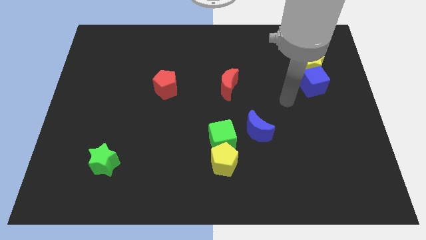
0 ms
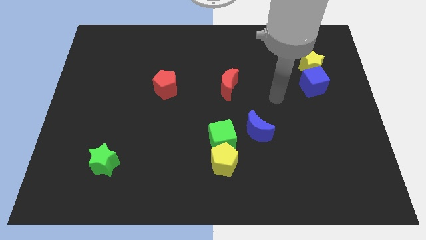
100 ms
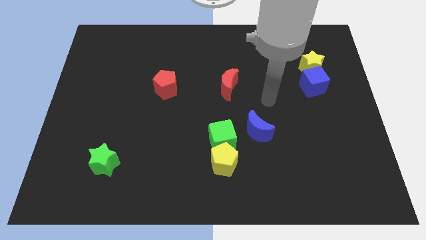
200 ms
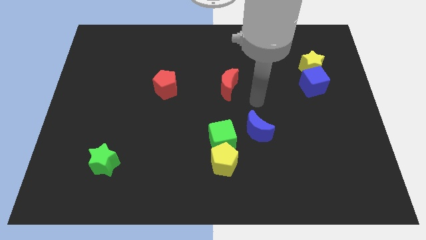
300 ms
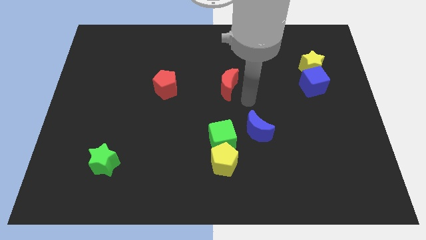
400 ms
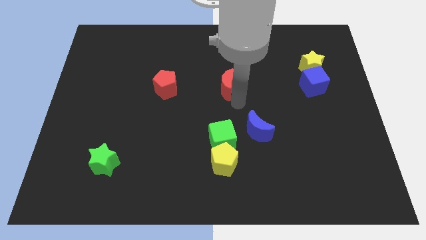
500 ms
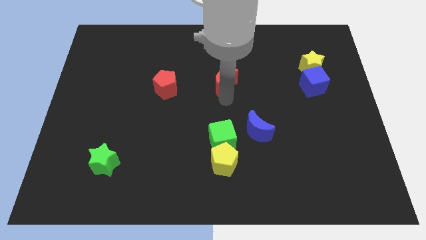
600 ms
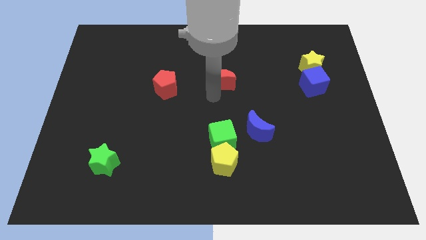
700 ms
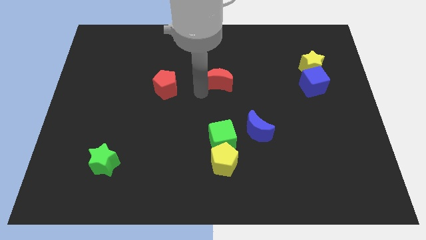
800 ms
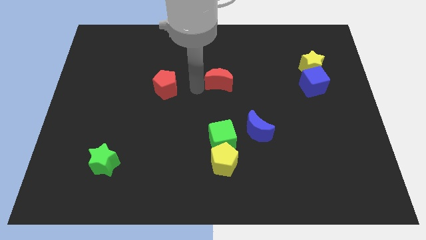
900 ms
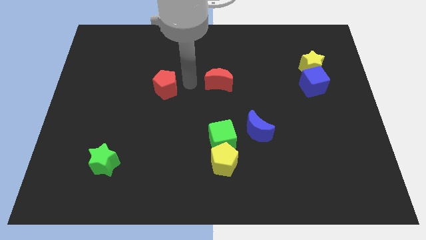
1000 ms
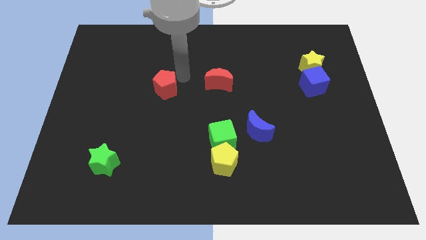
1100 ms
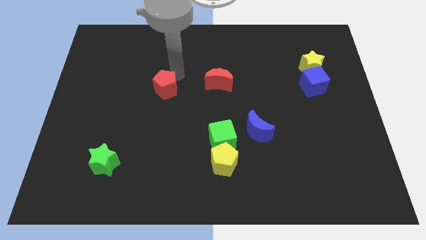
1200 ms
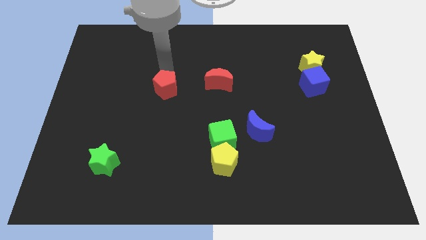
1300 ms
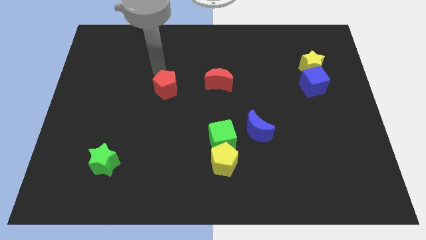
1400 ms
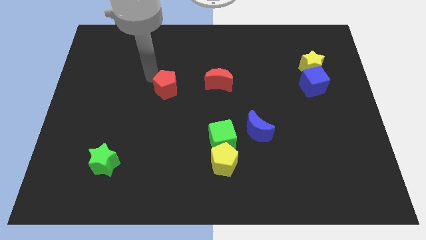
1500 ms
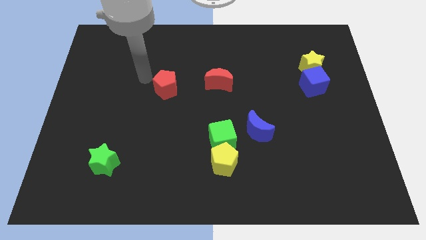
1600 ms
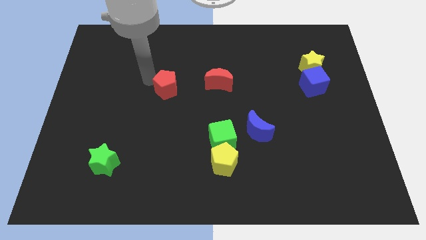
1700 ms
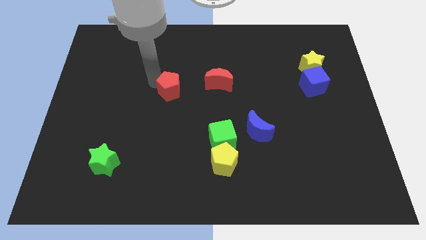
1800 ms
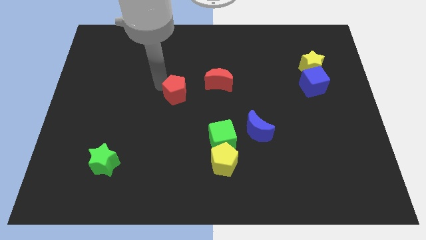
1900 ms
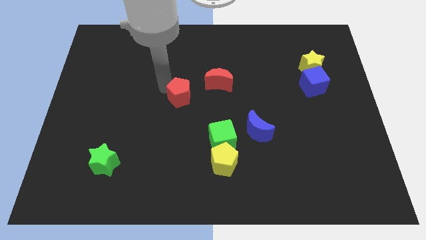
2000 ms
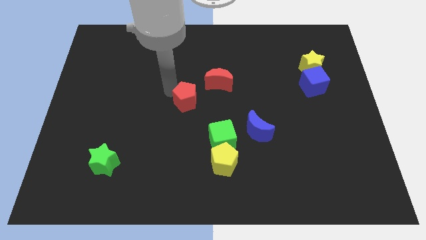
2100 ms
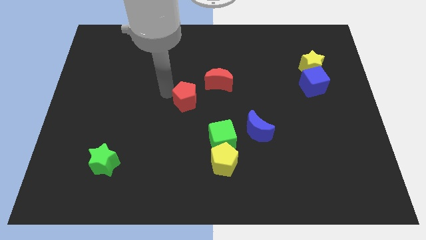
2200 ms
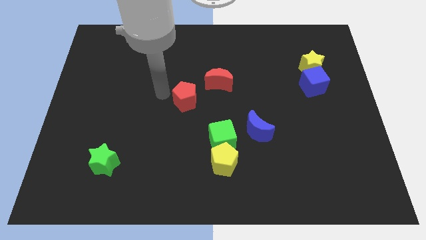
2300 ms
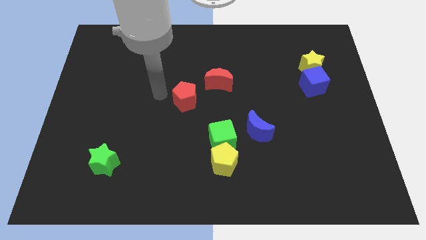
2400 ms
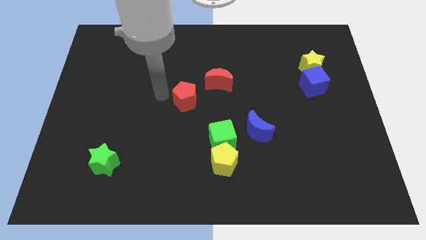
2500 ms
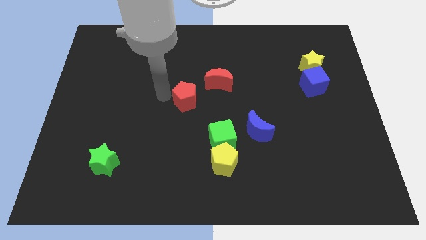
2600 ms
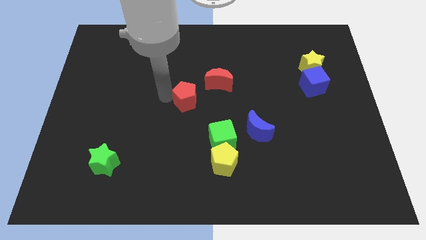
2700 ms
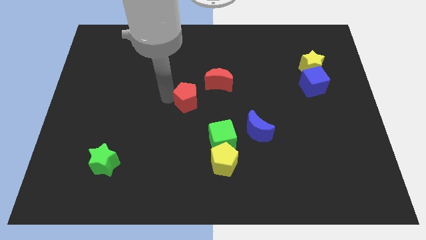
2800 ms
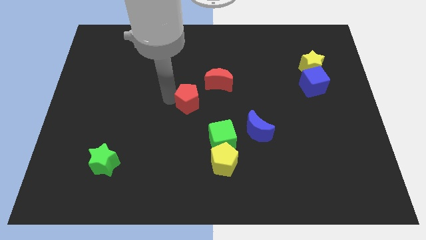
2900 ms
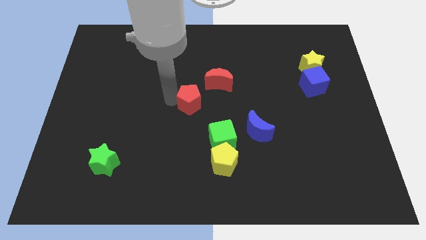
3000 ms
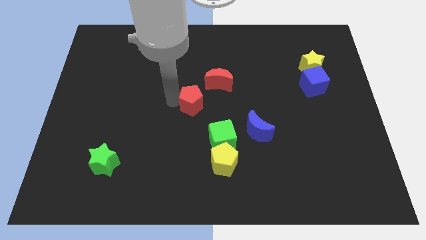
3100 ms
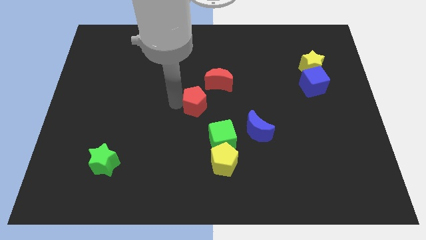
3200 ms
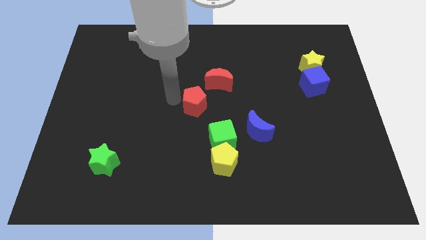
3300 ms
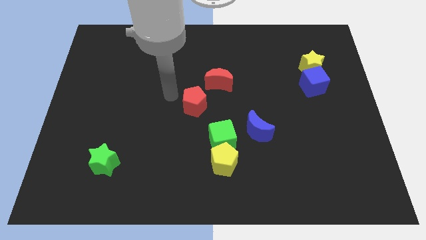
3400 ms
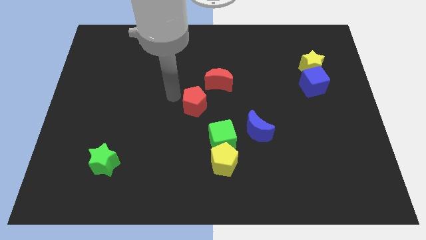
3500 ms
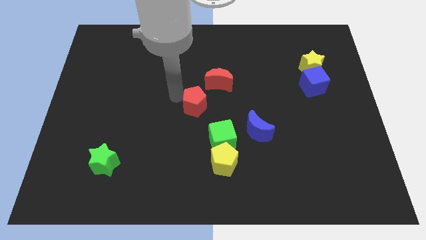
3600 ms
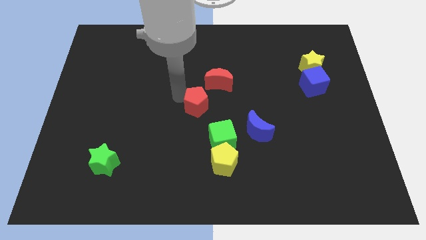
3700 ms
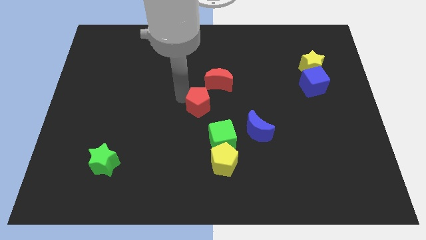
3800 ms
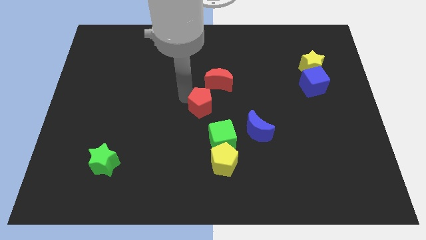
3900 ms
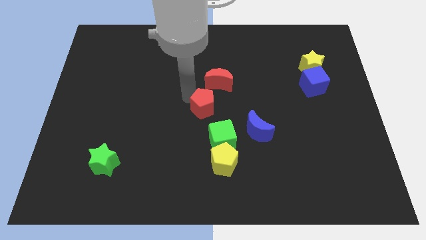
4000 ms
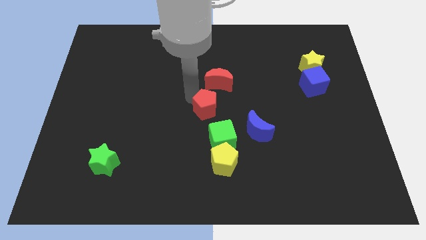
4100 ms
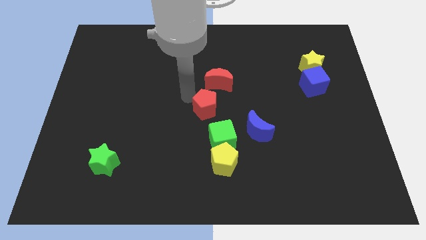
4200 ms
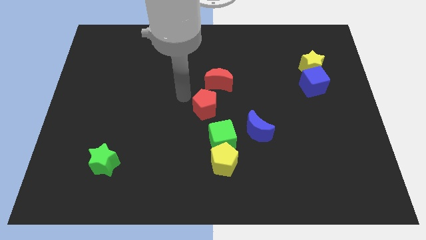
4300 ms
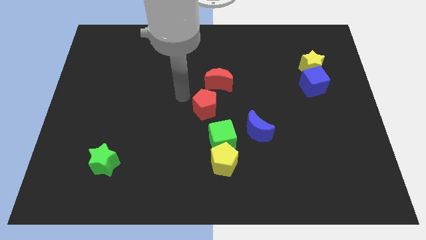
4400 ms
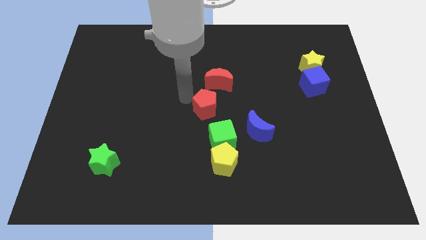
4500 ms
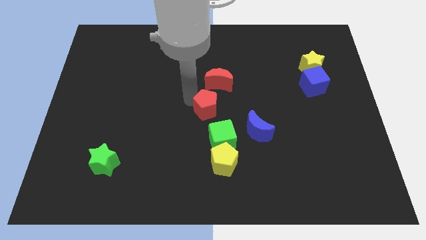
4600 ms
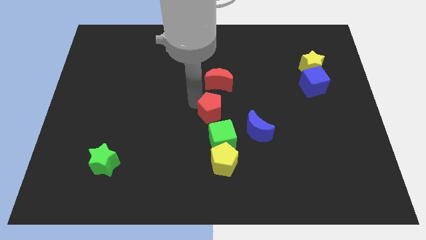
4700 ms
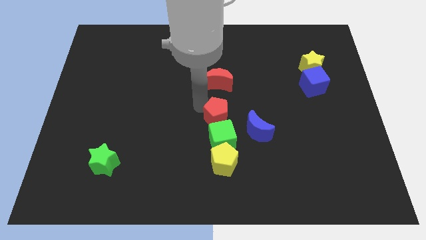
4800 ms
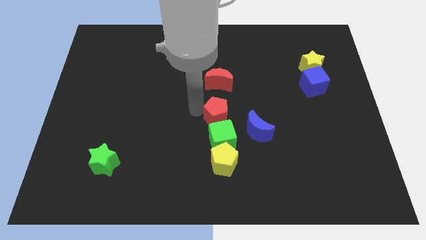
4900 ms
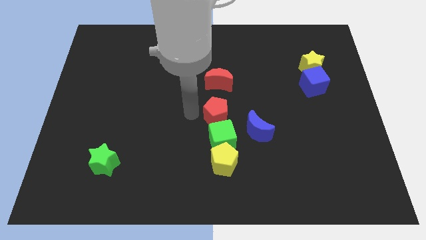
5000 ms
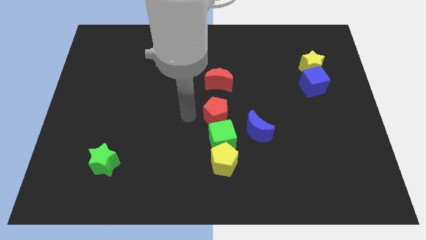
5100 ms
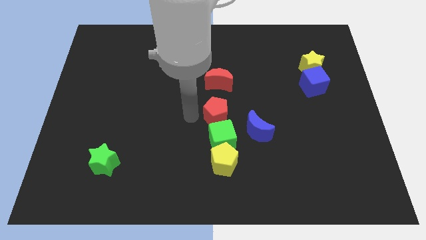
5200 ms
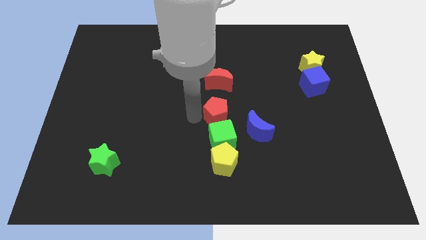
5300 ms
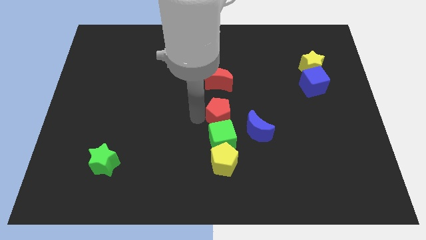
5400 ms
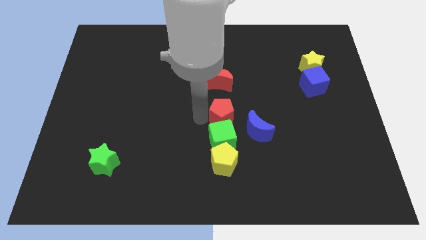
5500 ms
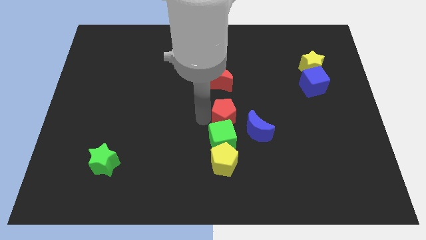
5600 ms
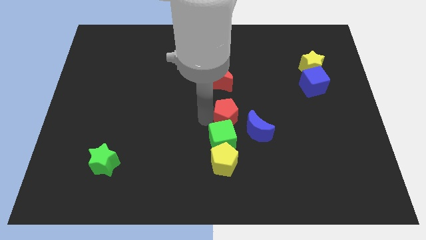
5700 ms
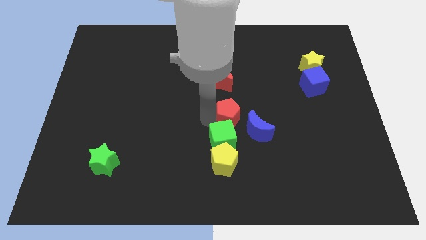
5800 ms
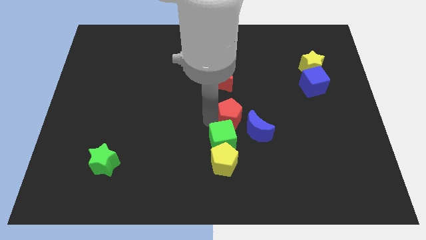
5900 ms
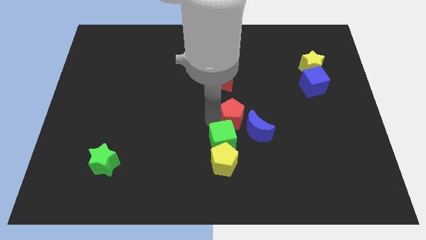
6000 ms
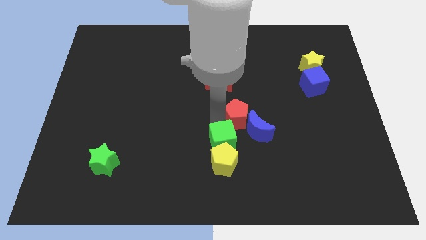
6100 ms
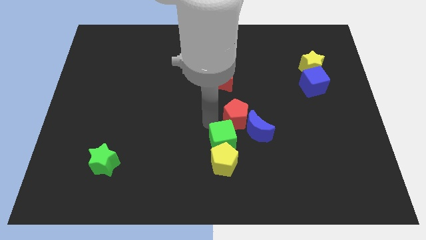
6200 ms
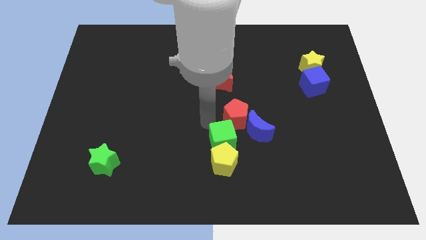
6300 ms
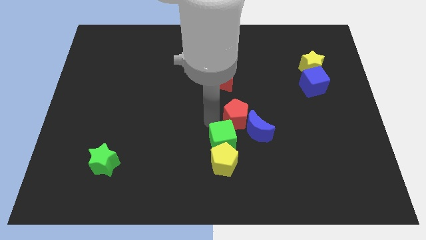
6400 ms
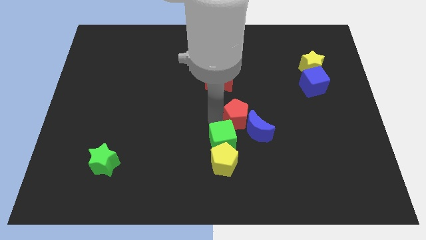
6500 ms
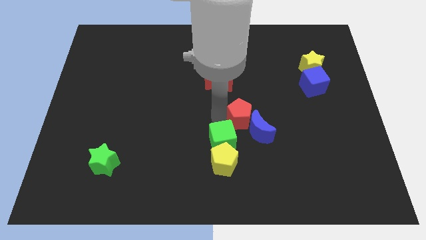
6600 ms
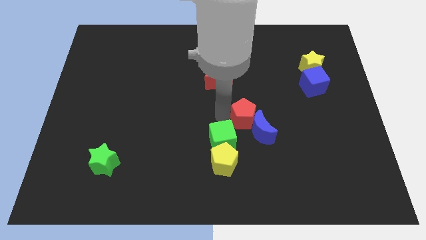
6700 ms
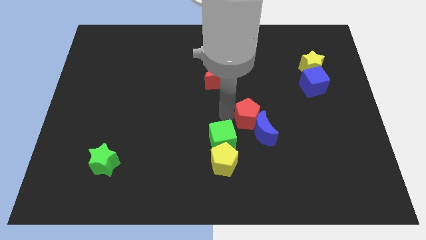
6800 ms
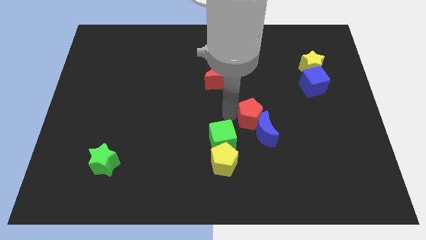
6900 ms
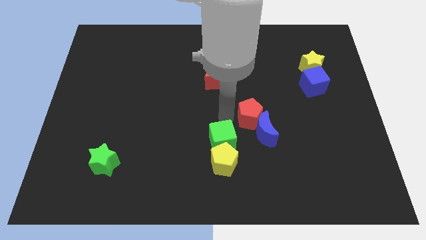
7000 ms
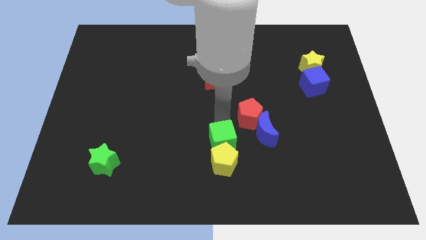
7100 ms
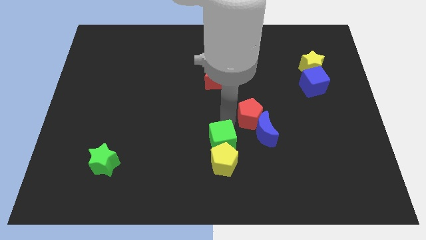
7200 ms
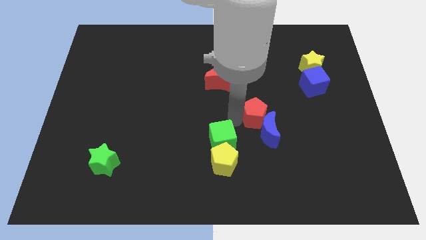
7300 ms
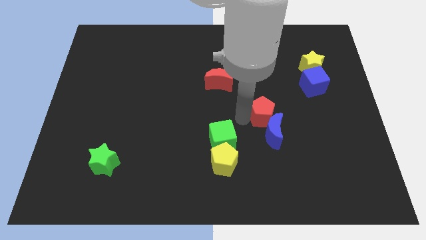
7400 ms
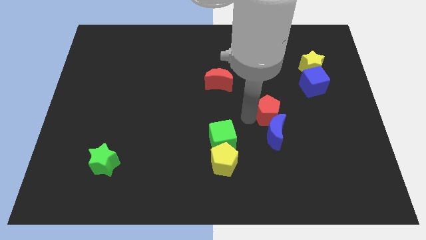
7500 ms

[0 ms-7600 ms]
slide the red pentagon to the right
